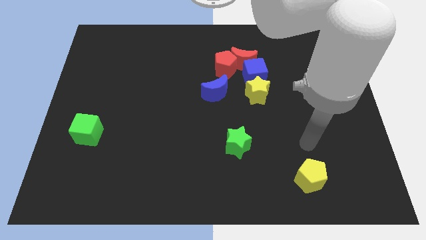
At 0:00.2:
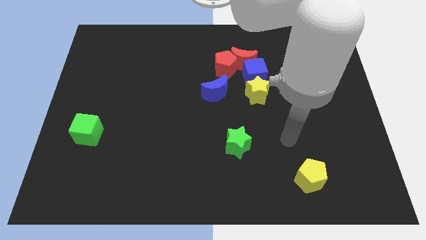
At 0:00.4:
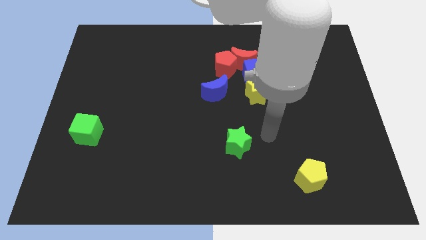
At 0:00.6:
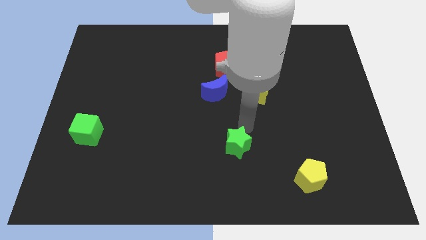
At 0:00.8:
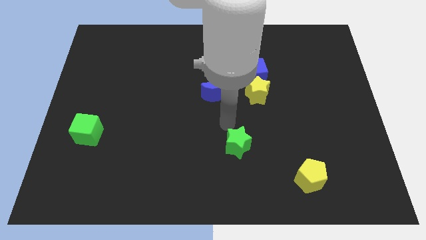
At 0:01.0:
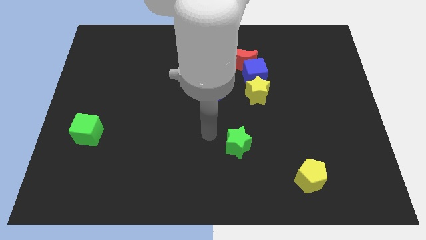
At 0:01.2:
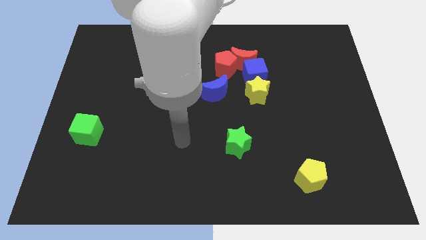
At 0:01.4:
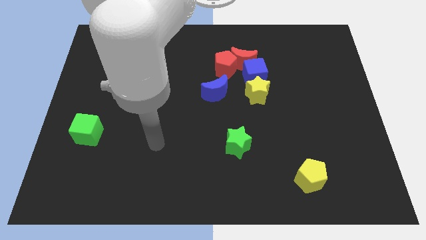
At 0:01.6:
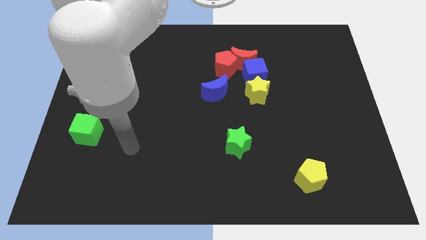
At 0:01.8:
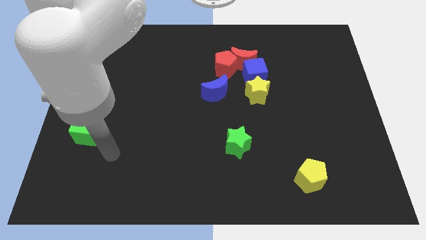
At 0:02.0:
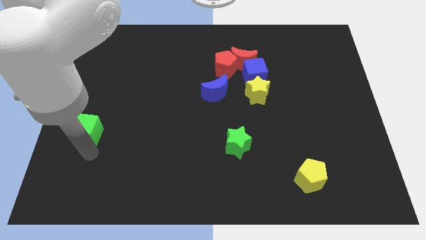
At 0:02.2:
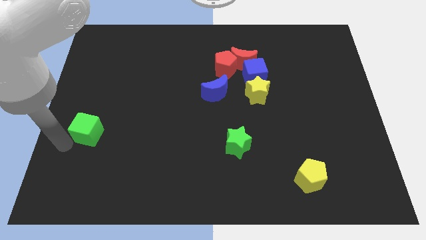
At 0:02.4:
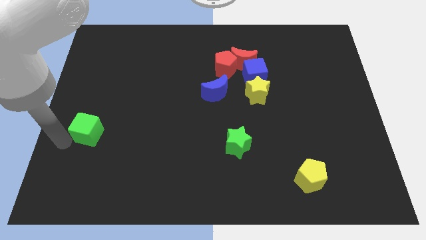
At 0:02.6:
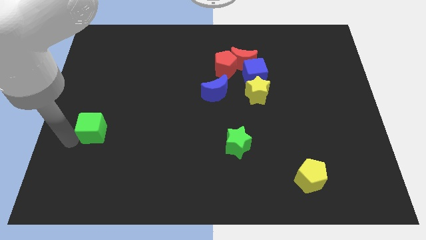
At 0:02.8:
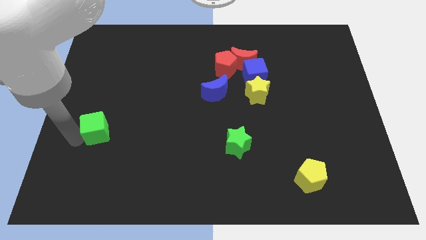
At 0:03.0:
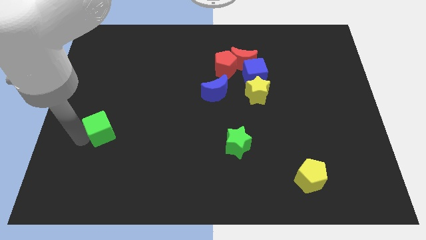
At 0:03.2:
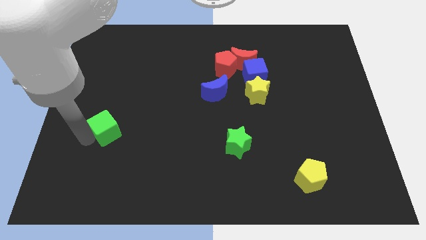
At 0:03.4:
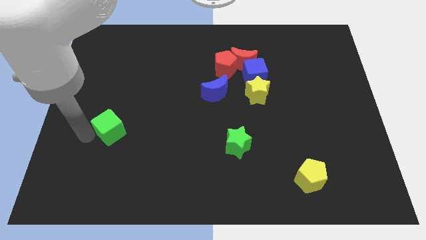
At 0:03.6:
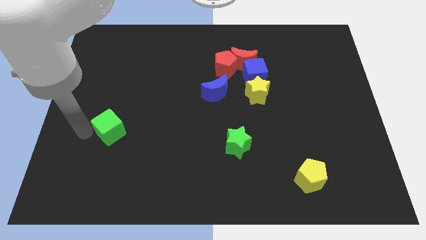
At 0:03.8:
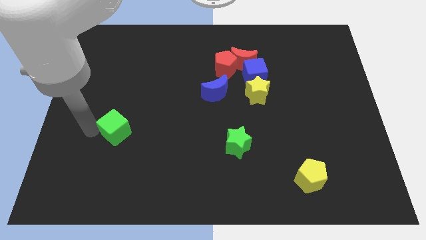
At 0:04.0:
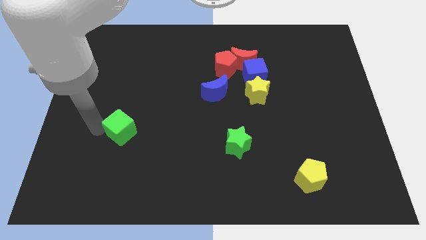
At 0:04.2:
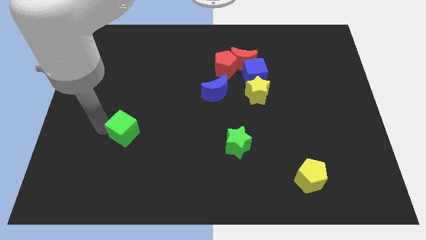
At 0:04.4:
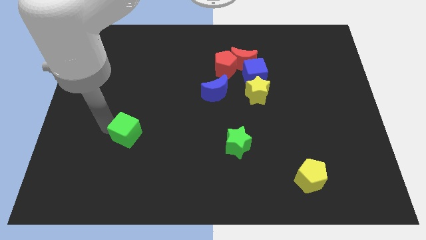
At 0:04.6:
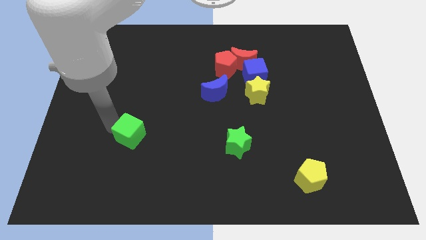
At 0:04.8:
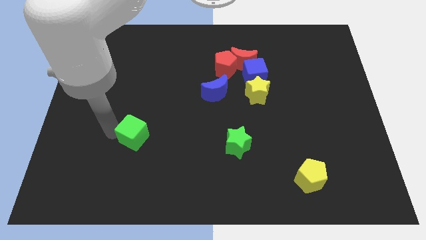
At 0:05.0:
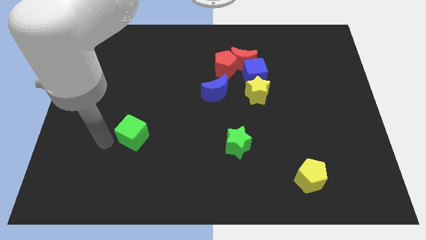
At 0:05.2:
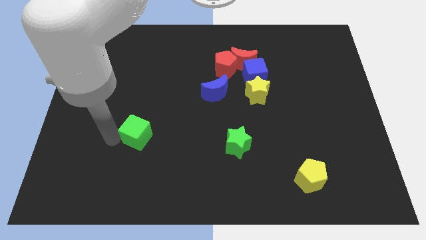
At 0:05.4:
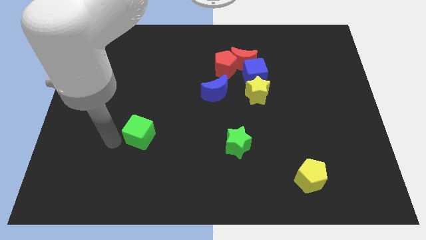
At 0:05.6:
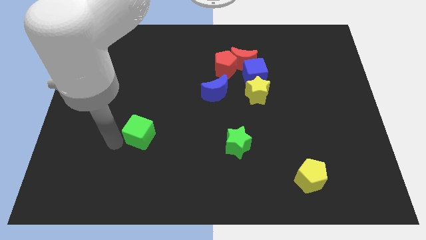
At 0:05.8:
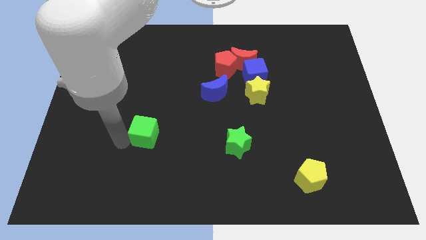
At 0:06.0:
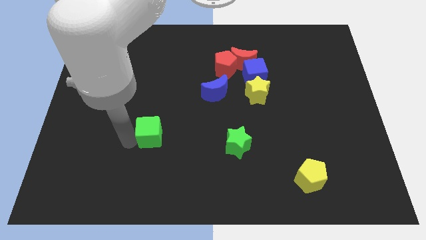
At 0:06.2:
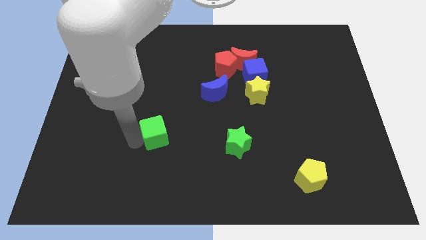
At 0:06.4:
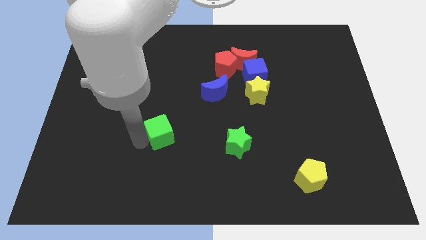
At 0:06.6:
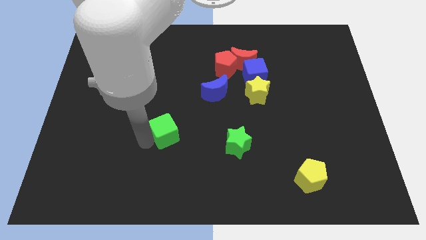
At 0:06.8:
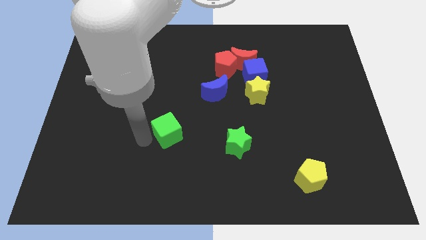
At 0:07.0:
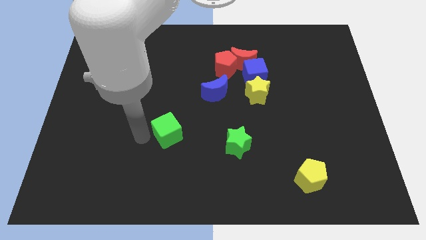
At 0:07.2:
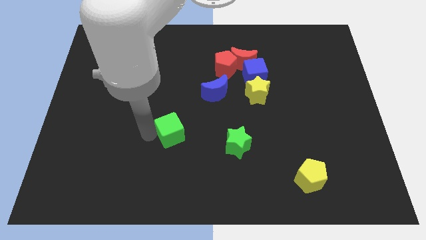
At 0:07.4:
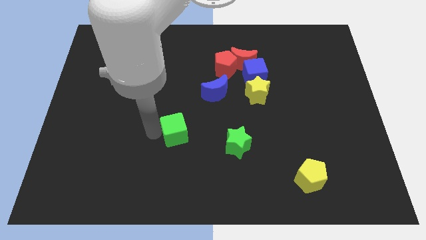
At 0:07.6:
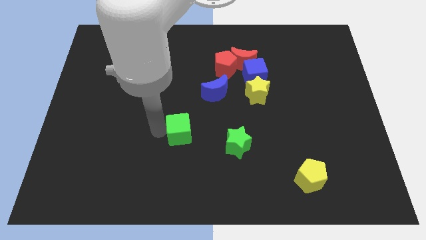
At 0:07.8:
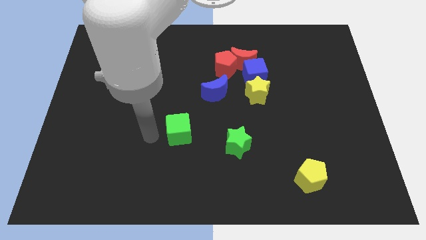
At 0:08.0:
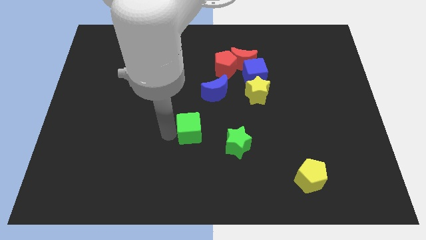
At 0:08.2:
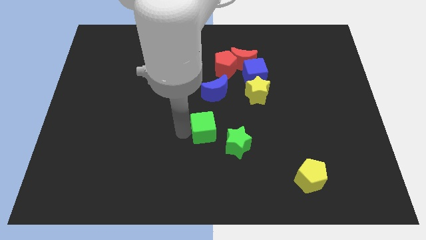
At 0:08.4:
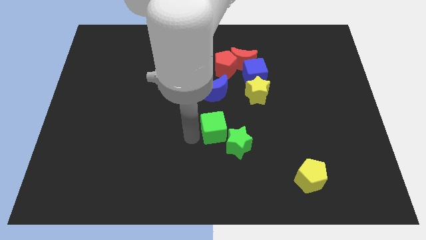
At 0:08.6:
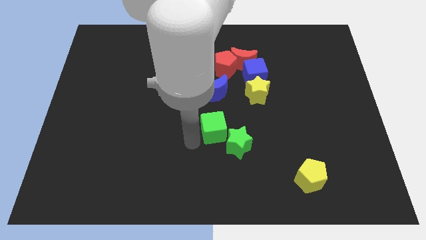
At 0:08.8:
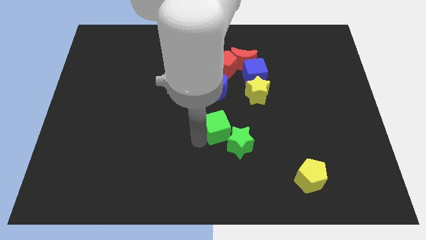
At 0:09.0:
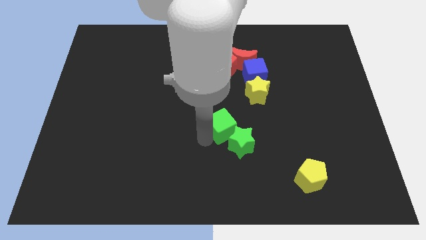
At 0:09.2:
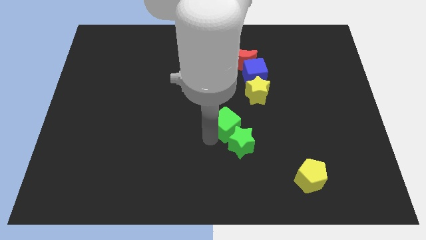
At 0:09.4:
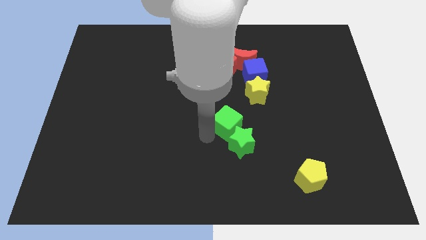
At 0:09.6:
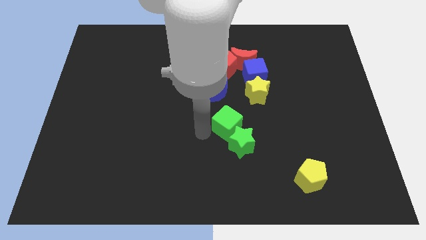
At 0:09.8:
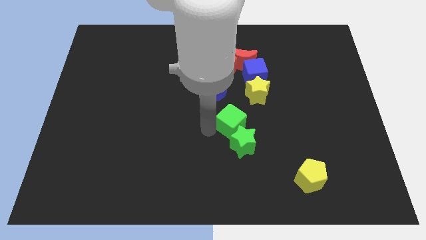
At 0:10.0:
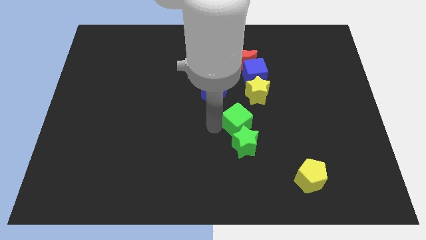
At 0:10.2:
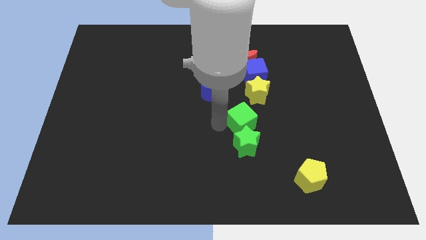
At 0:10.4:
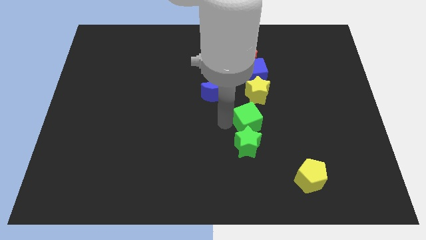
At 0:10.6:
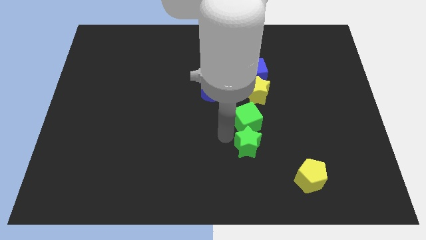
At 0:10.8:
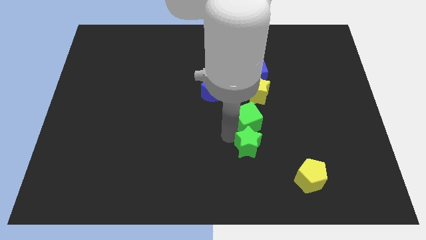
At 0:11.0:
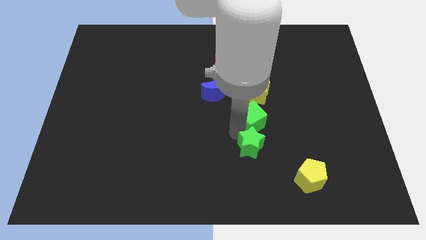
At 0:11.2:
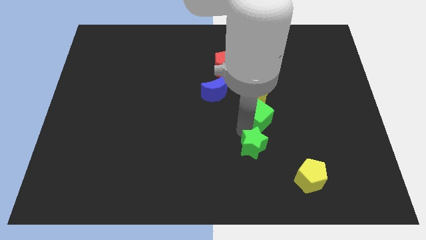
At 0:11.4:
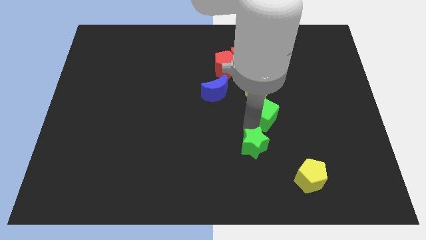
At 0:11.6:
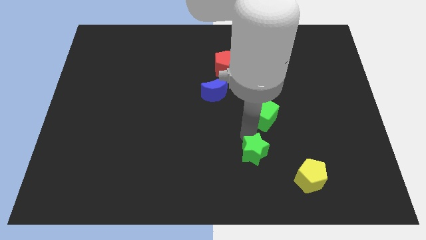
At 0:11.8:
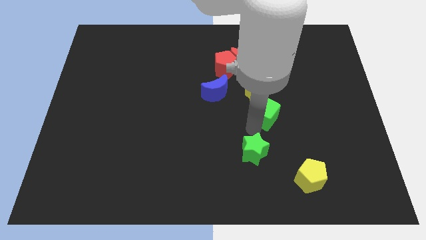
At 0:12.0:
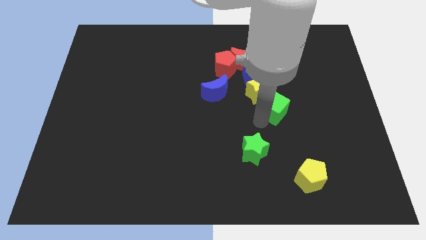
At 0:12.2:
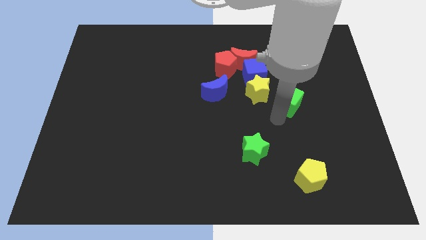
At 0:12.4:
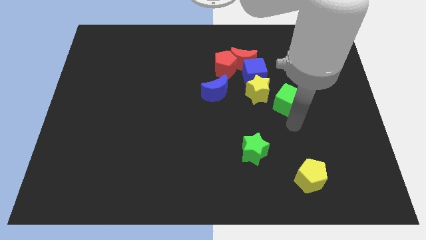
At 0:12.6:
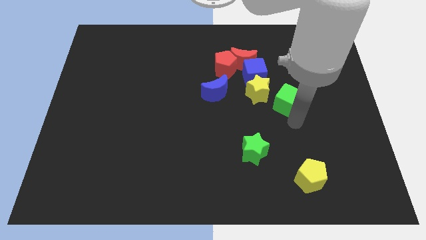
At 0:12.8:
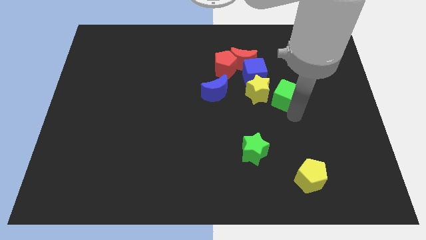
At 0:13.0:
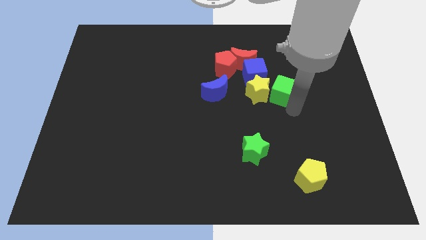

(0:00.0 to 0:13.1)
put the green cube to the top right side of the yellow star

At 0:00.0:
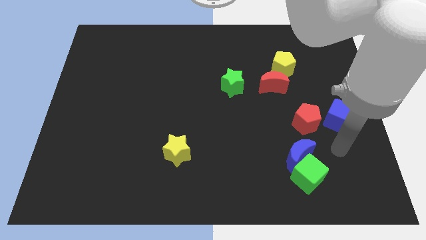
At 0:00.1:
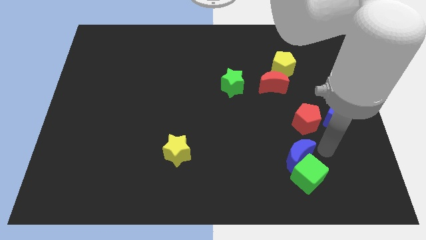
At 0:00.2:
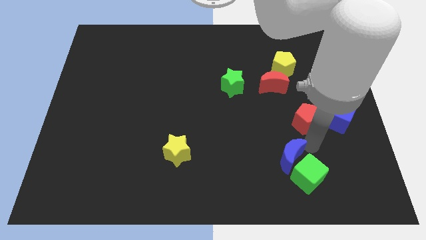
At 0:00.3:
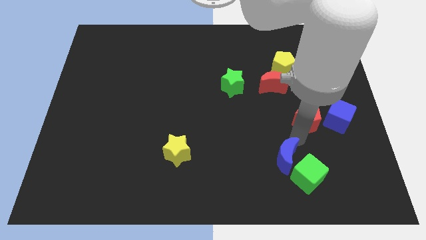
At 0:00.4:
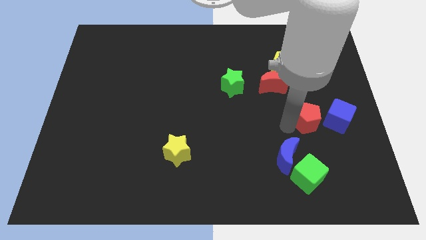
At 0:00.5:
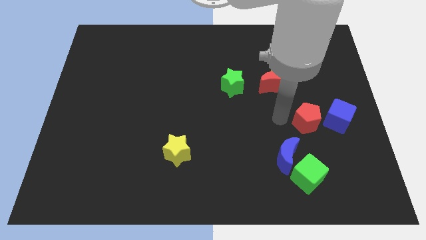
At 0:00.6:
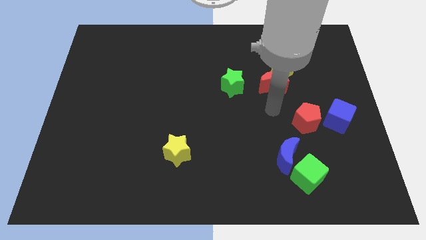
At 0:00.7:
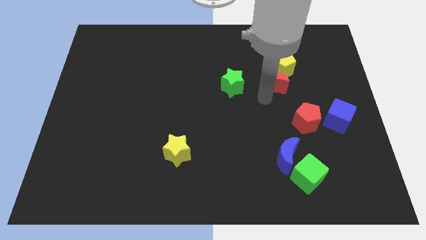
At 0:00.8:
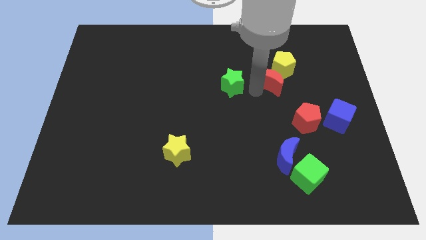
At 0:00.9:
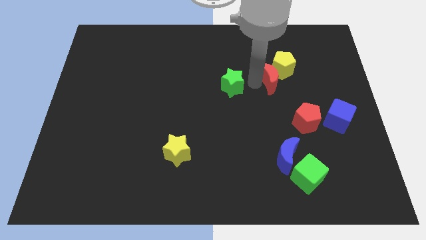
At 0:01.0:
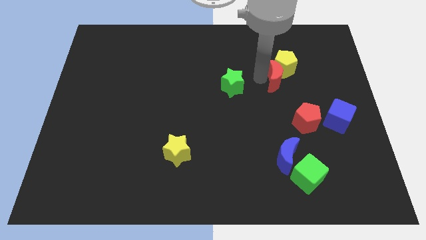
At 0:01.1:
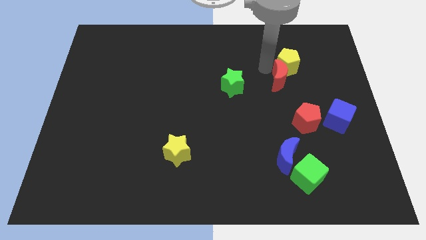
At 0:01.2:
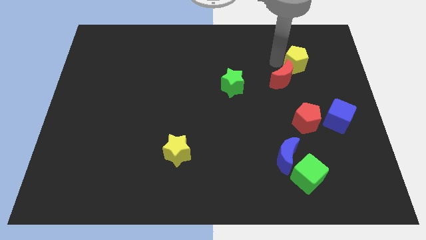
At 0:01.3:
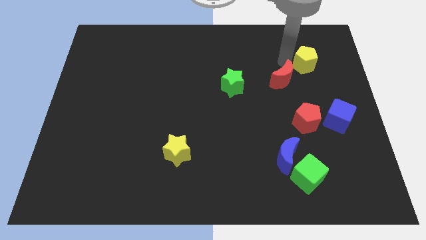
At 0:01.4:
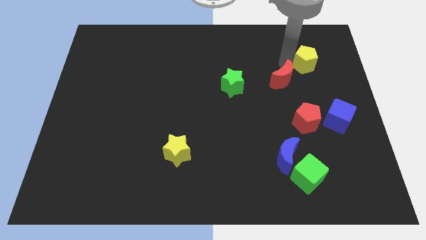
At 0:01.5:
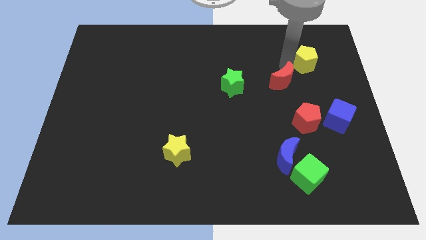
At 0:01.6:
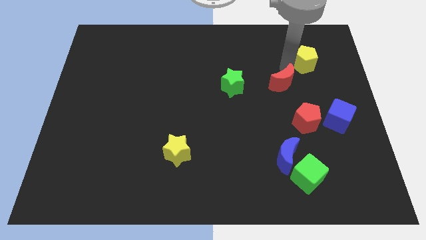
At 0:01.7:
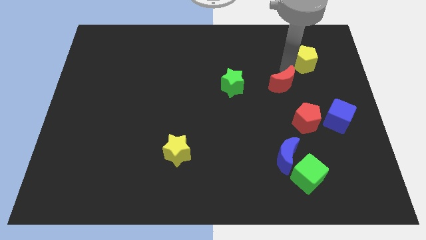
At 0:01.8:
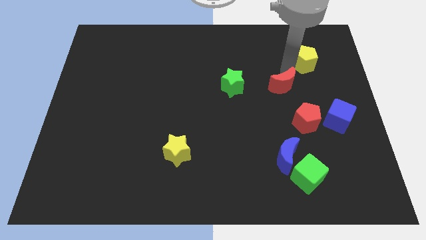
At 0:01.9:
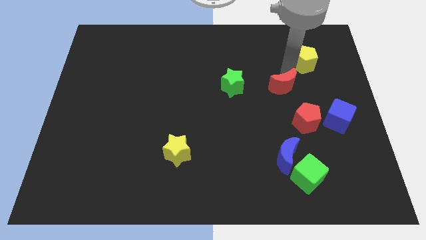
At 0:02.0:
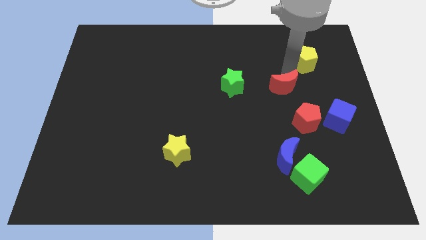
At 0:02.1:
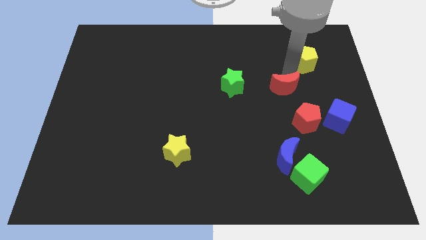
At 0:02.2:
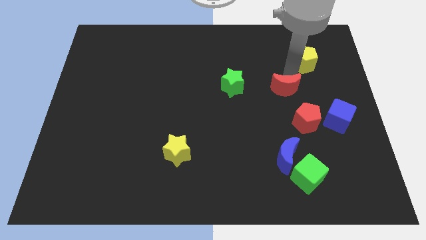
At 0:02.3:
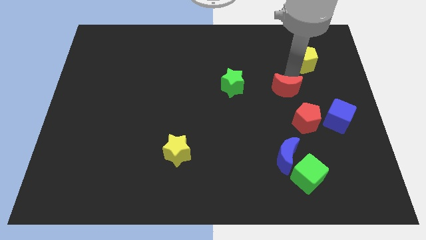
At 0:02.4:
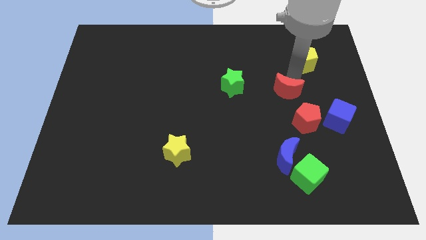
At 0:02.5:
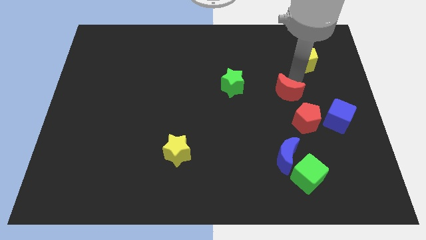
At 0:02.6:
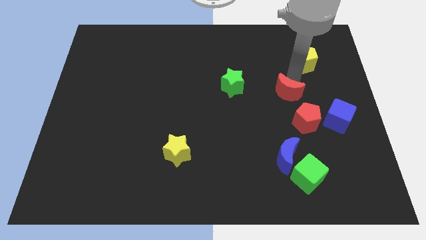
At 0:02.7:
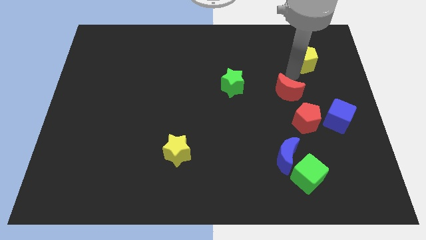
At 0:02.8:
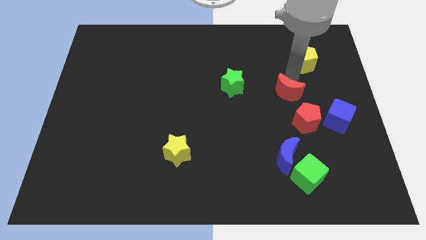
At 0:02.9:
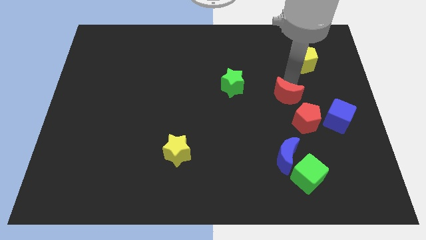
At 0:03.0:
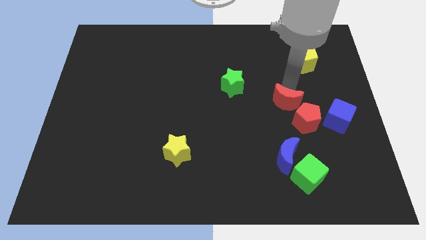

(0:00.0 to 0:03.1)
slide the red moon above the blue moon
